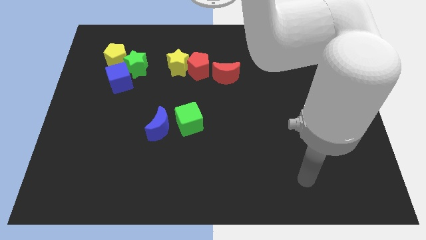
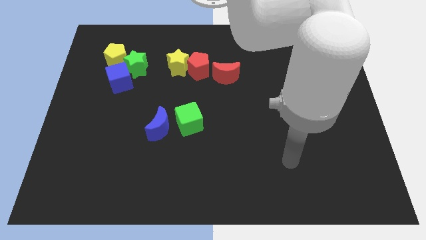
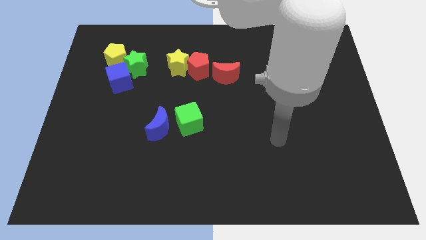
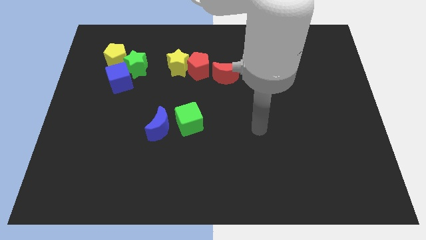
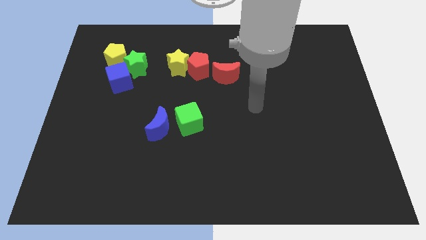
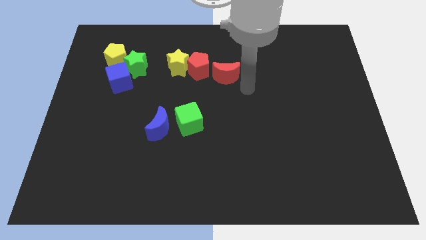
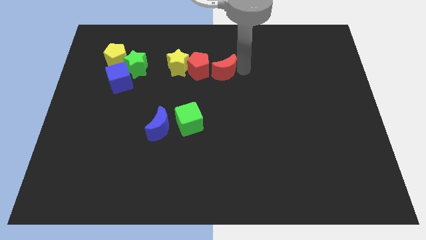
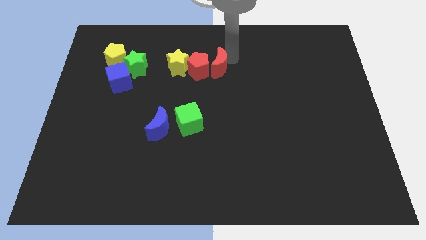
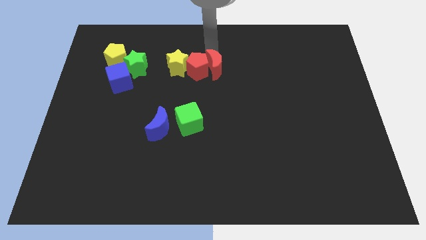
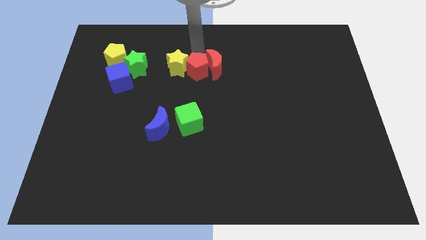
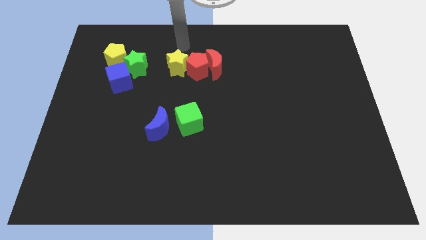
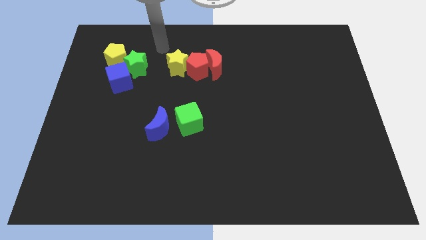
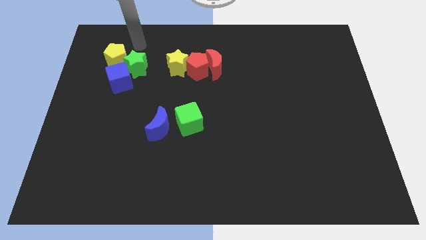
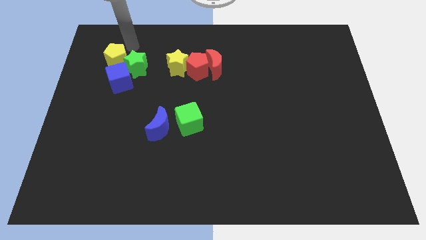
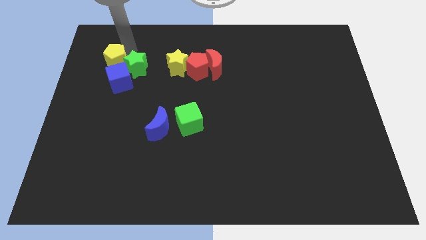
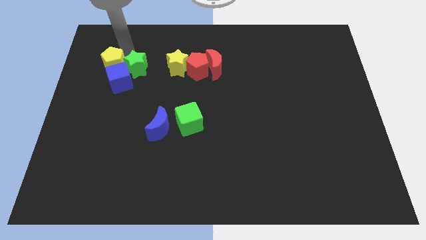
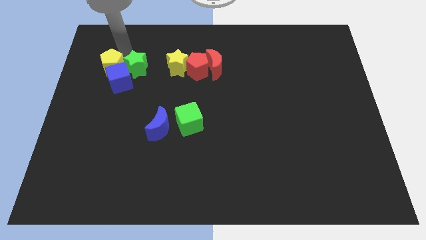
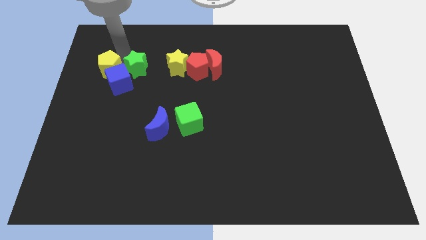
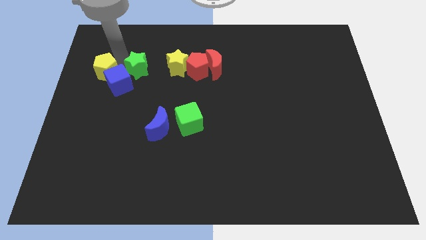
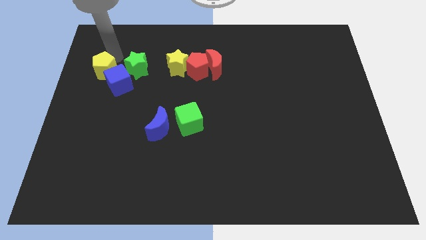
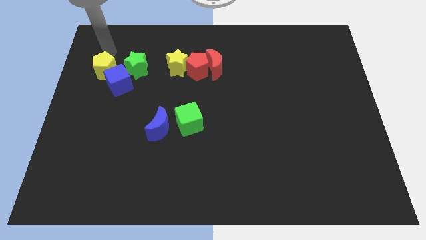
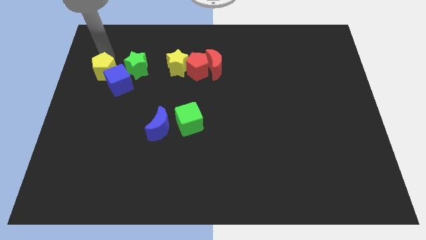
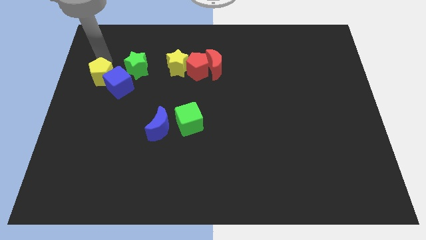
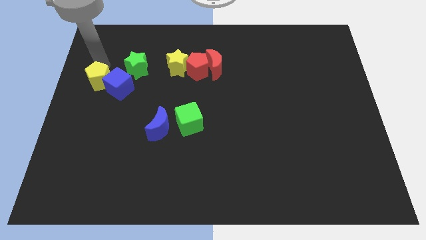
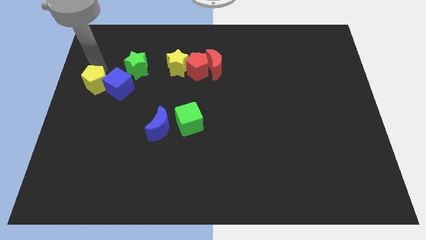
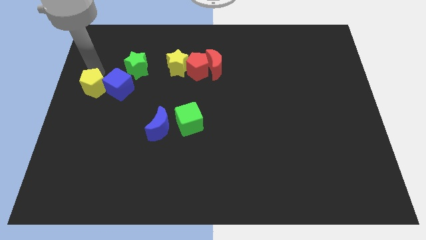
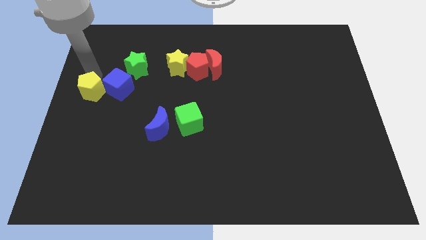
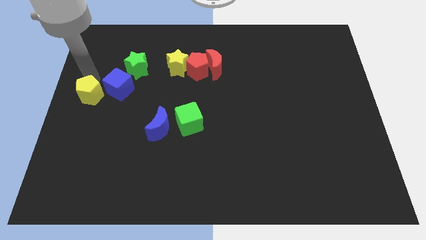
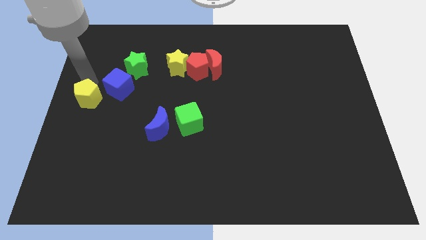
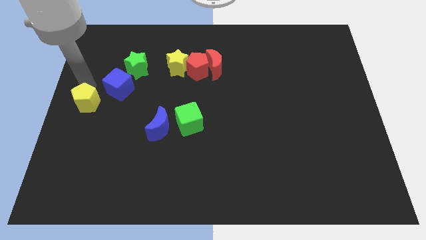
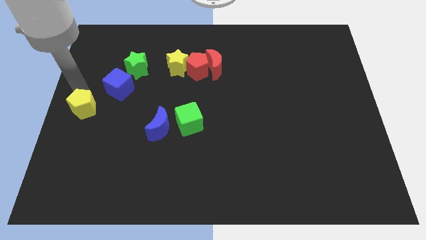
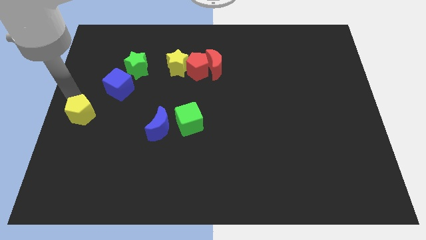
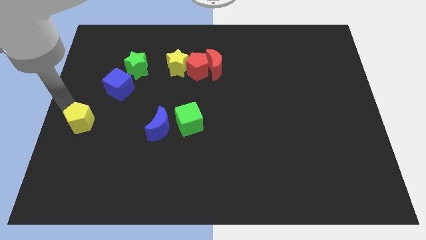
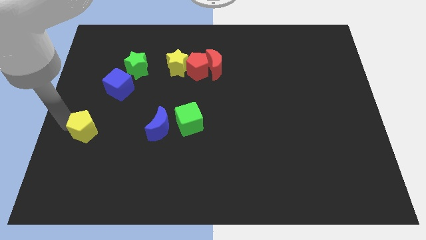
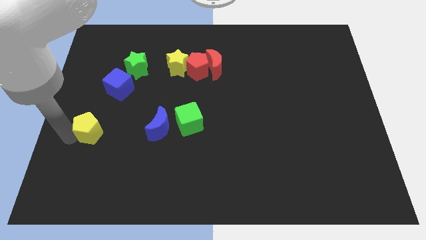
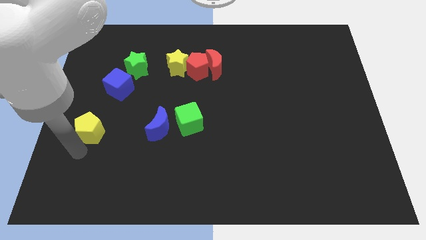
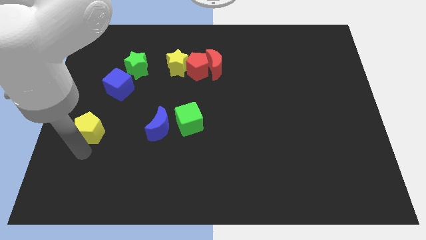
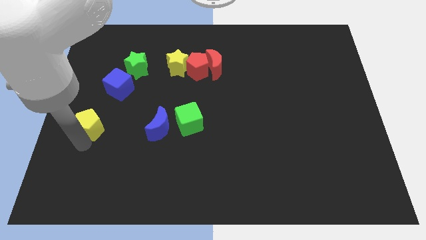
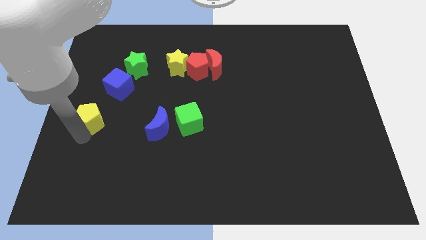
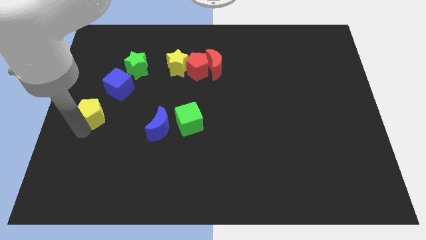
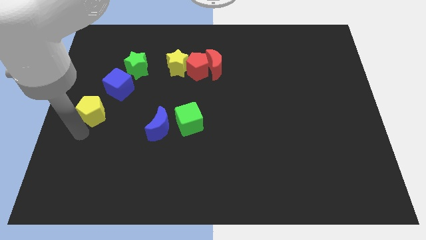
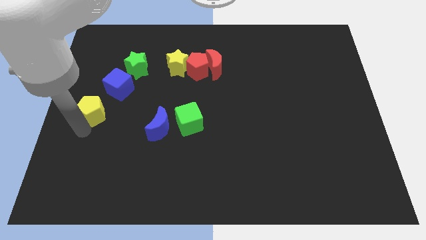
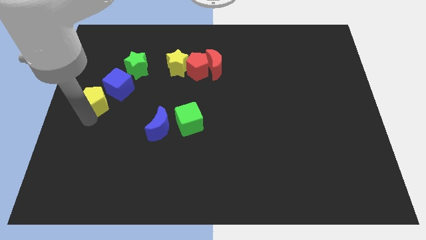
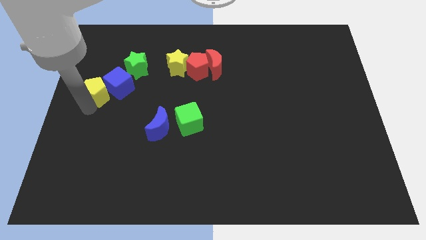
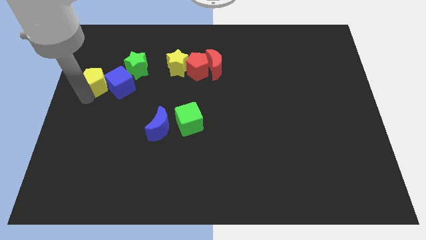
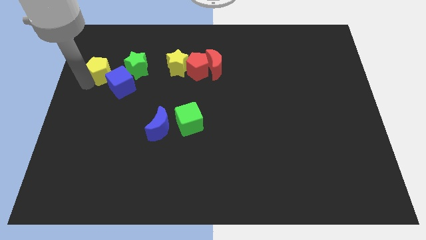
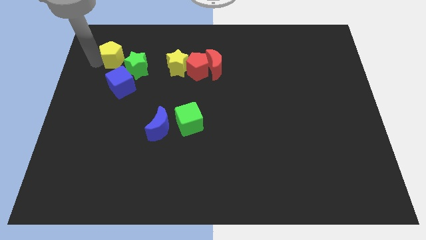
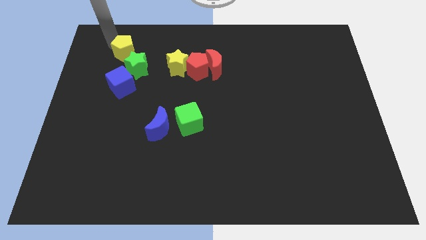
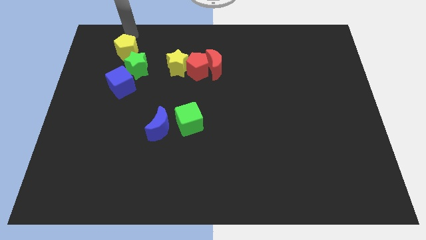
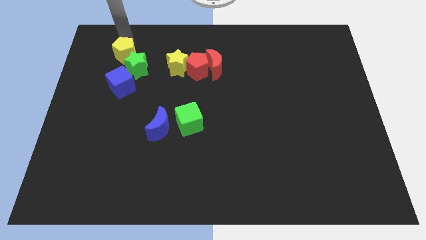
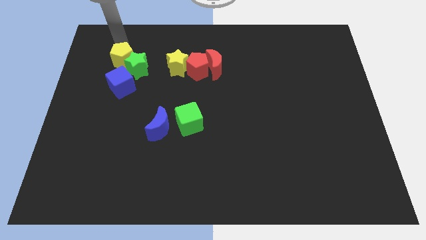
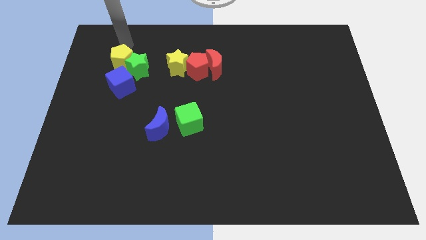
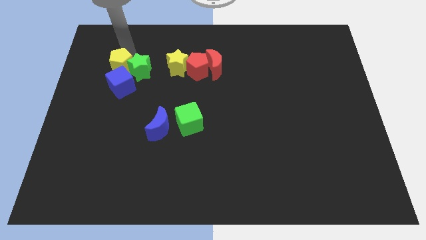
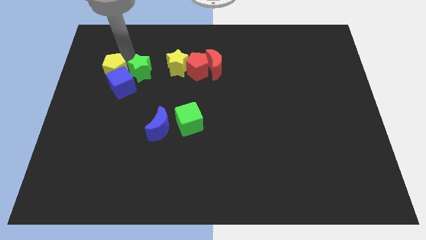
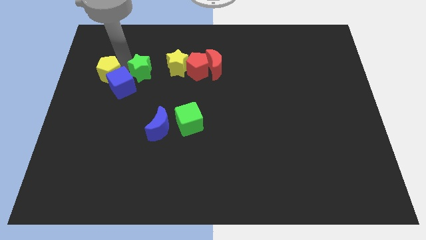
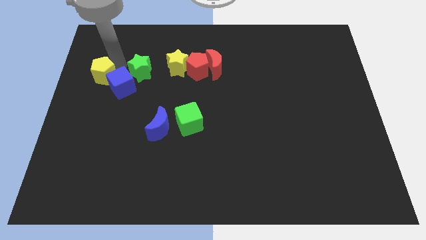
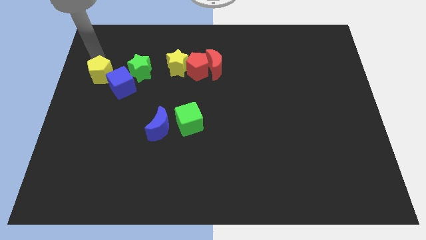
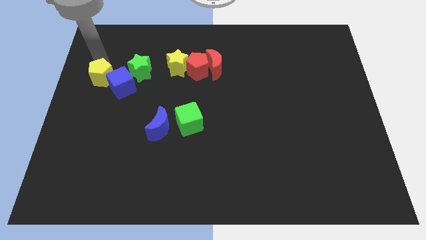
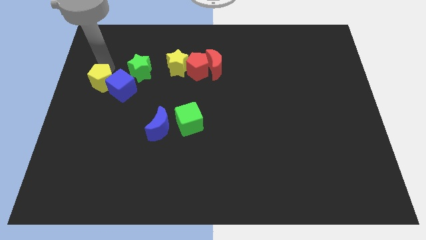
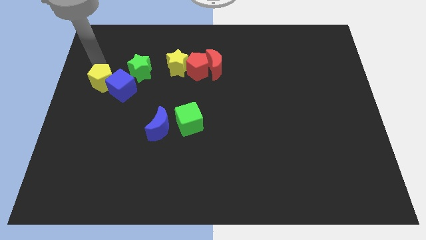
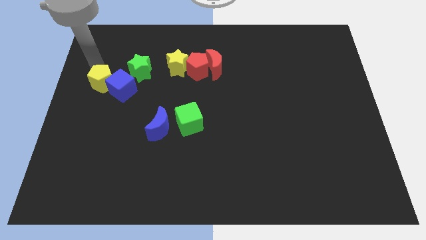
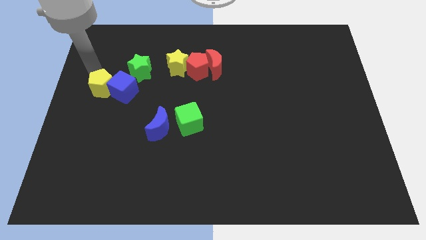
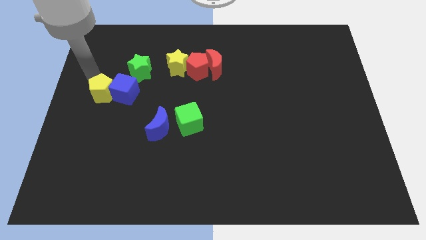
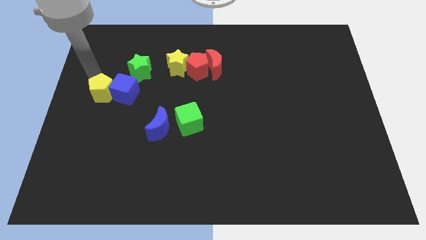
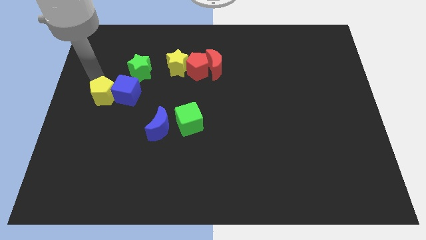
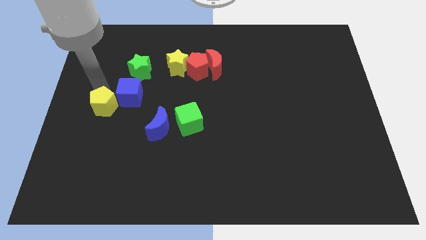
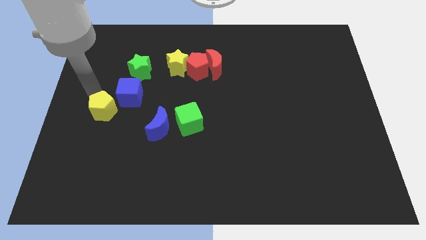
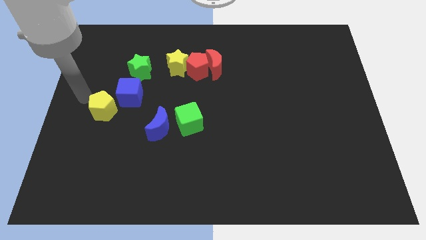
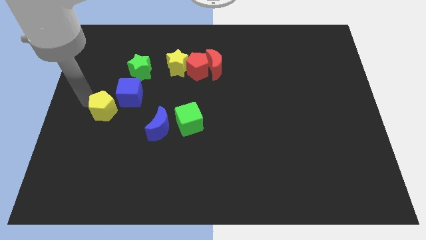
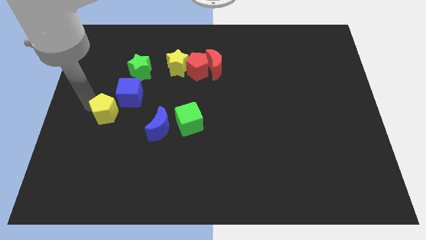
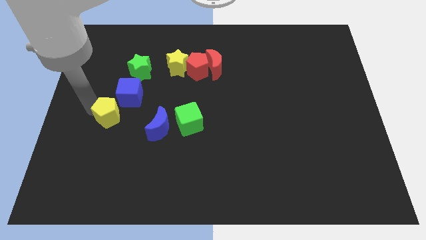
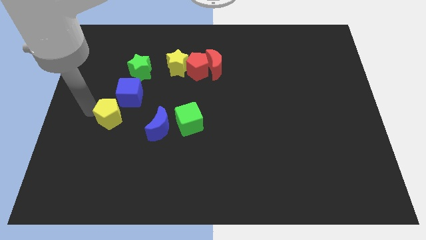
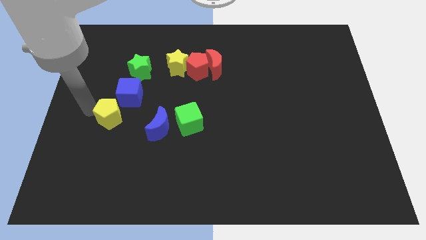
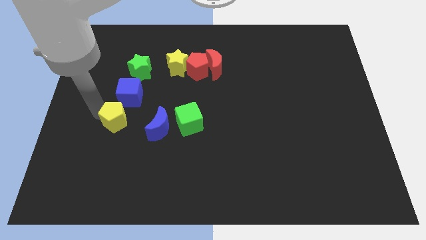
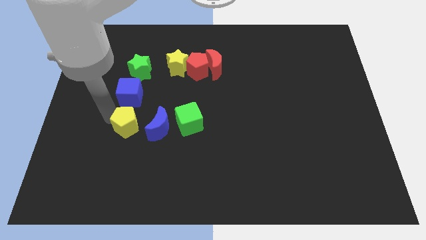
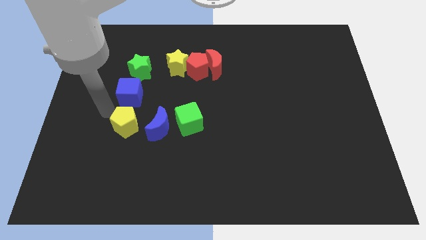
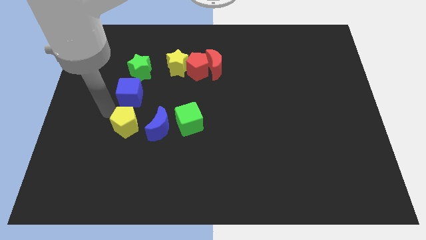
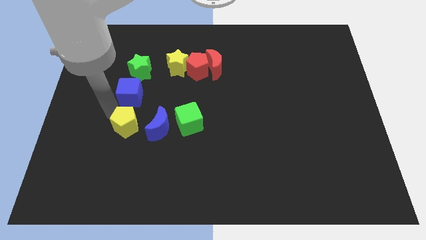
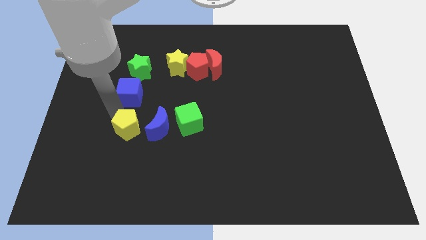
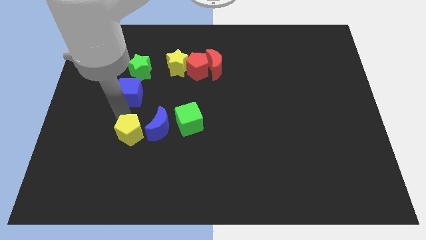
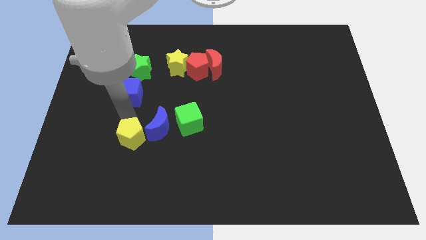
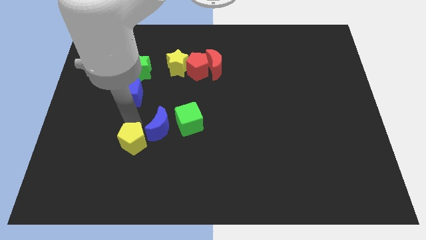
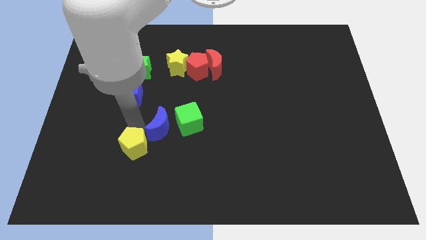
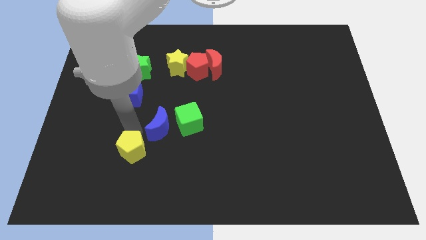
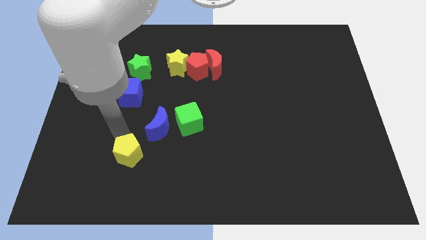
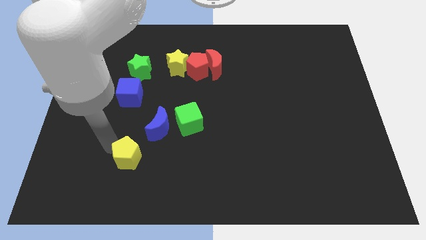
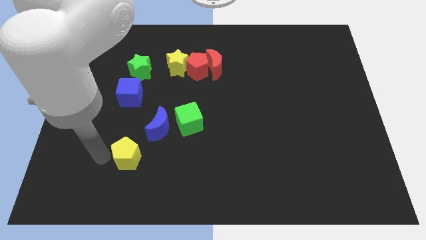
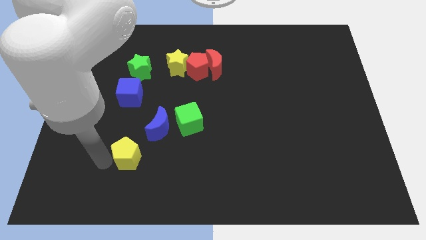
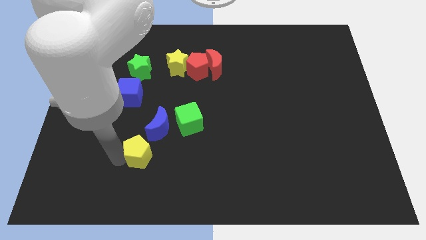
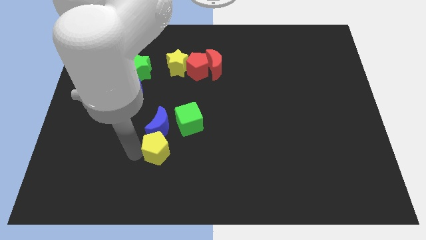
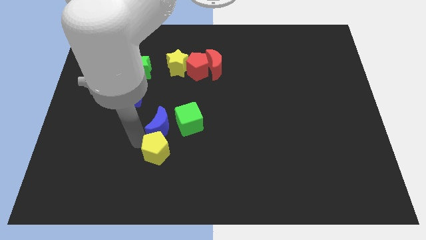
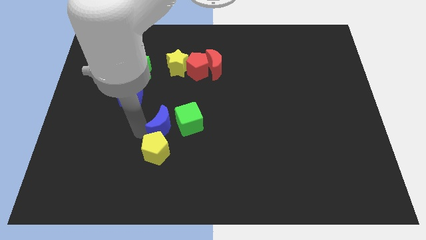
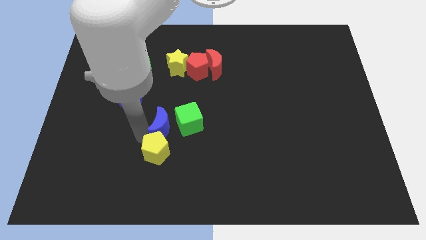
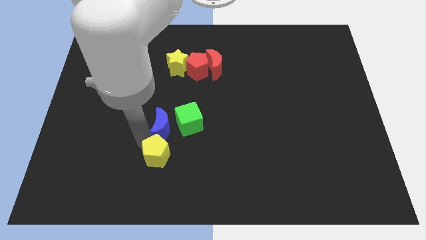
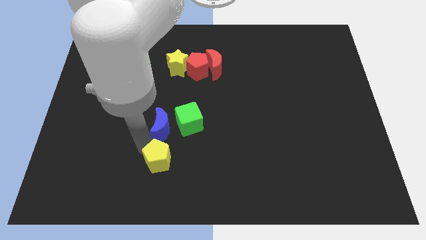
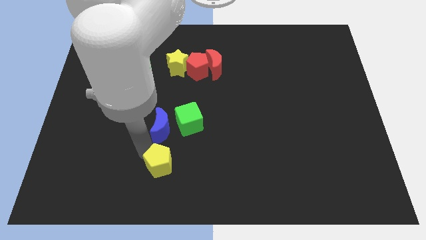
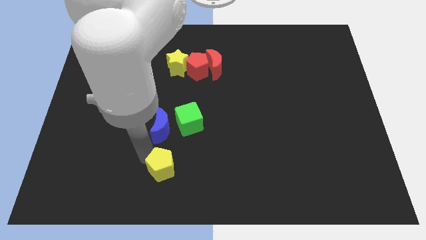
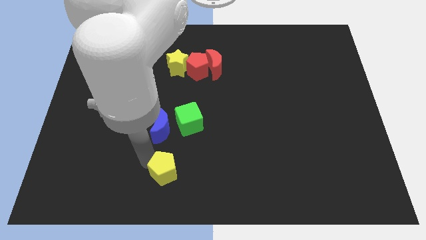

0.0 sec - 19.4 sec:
put the yellow pentagon to the bottom
